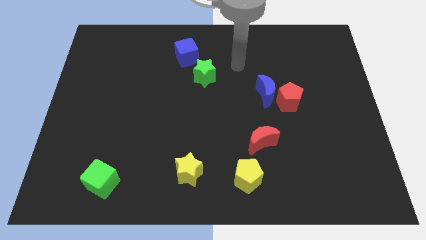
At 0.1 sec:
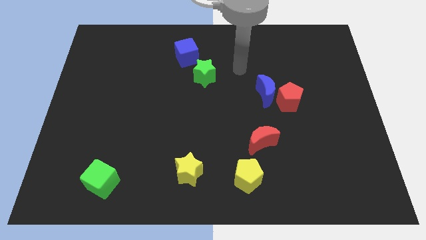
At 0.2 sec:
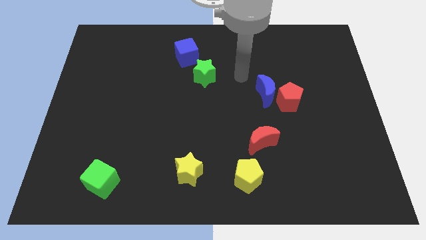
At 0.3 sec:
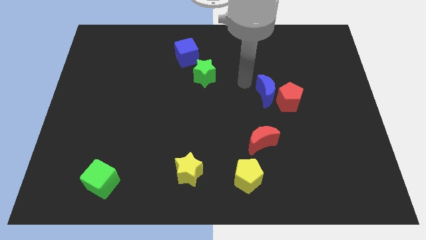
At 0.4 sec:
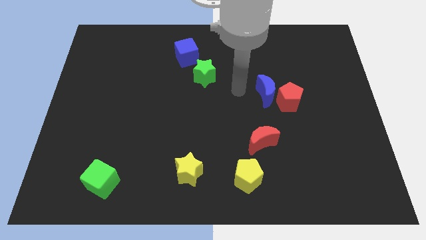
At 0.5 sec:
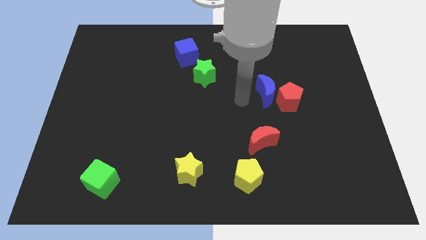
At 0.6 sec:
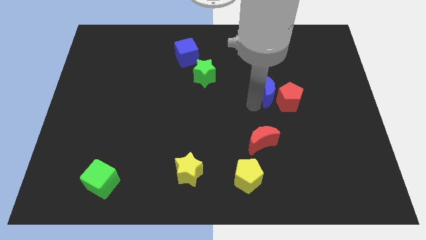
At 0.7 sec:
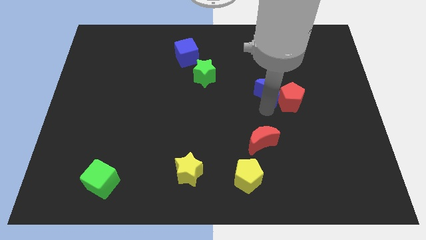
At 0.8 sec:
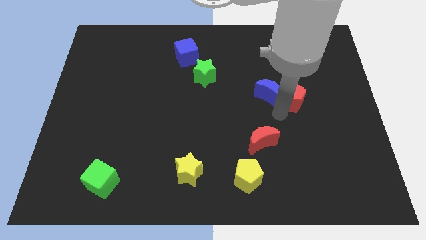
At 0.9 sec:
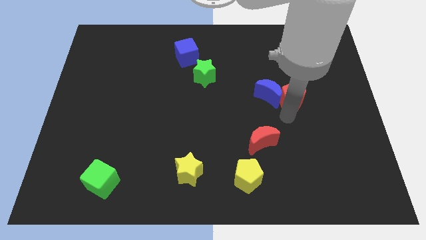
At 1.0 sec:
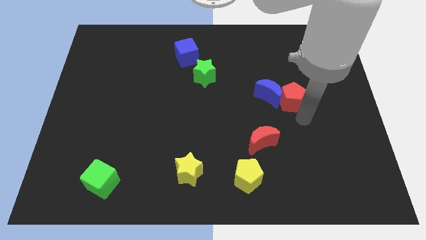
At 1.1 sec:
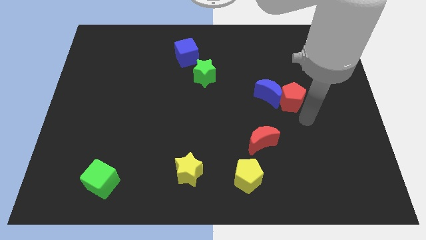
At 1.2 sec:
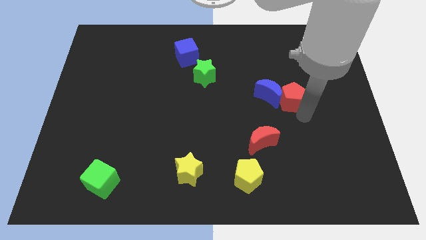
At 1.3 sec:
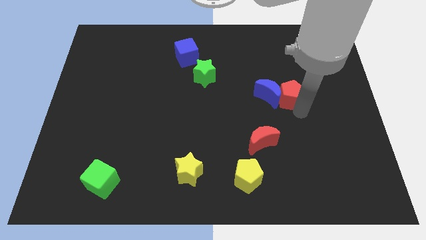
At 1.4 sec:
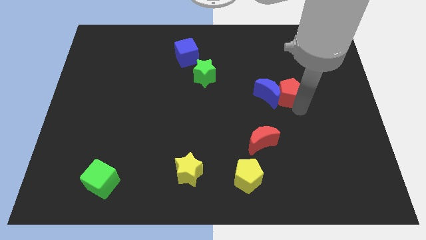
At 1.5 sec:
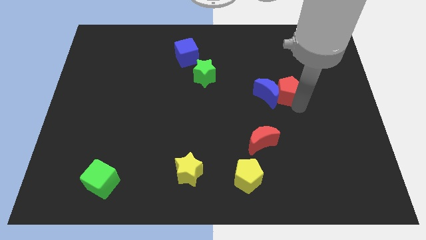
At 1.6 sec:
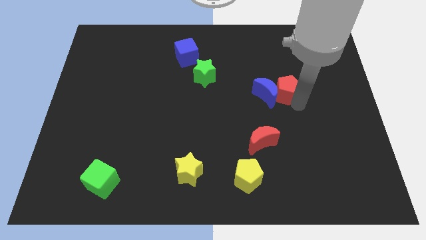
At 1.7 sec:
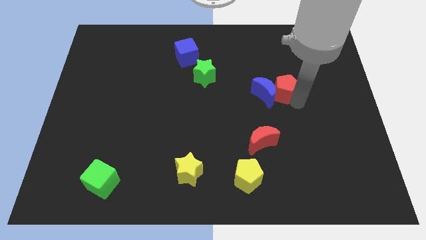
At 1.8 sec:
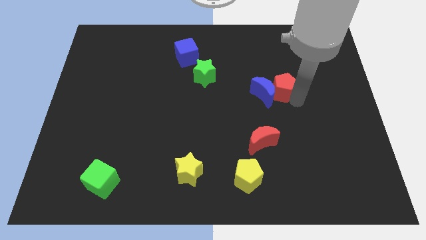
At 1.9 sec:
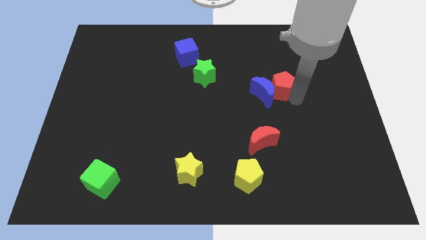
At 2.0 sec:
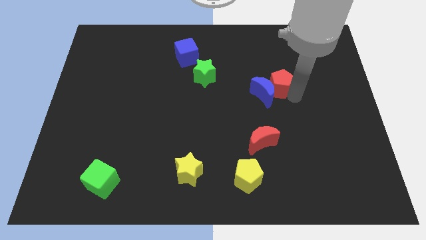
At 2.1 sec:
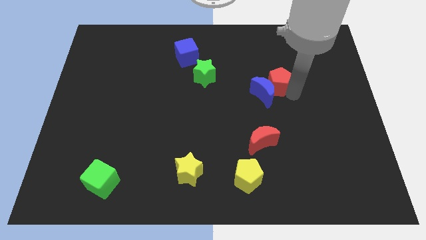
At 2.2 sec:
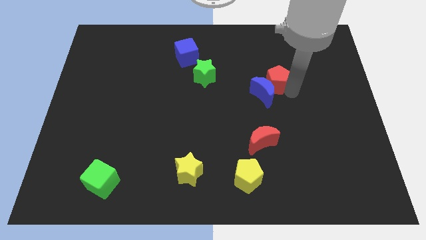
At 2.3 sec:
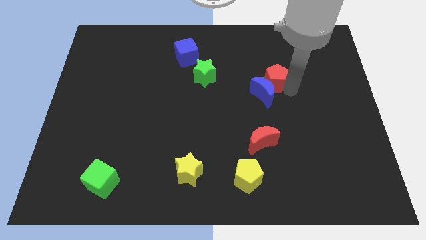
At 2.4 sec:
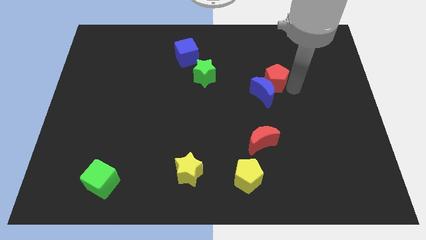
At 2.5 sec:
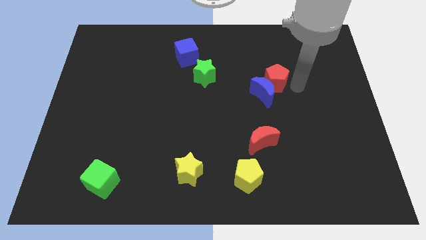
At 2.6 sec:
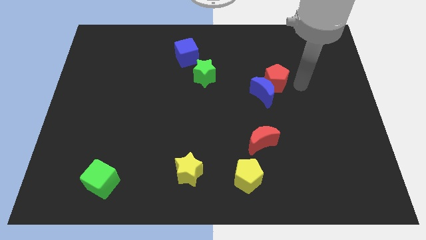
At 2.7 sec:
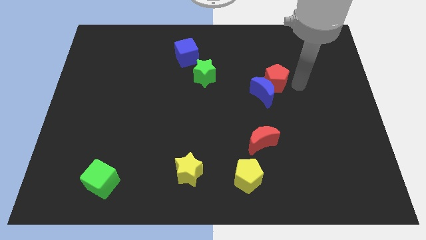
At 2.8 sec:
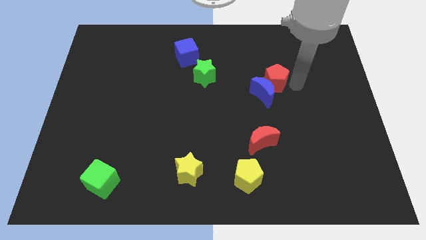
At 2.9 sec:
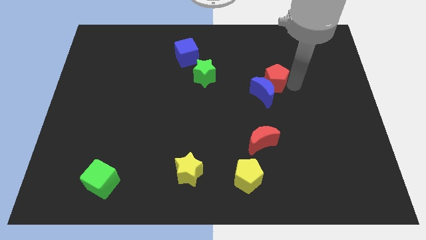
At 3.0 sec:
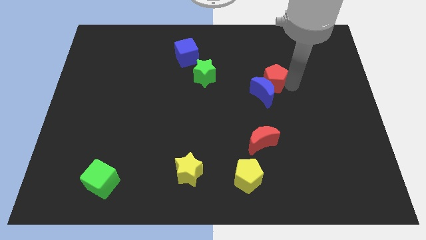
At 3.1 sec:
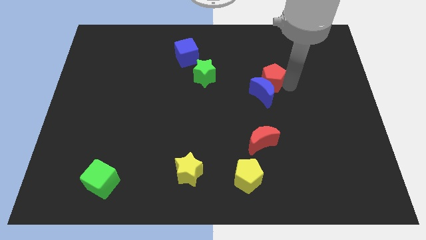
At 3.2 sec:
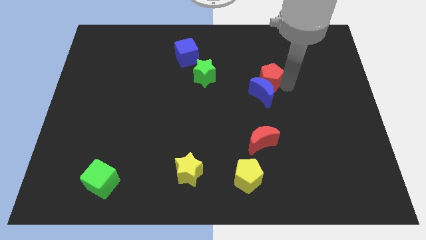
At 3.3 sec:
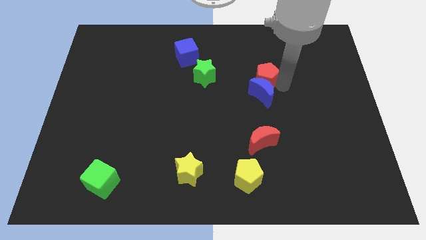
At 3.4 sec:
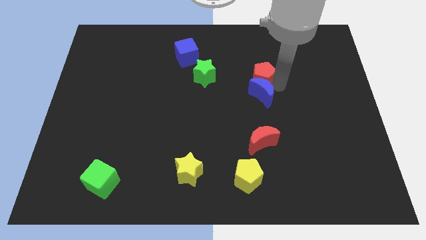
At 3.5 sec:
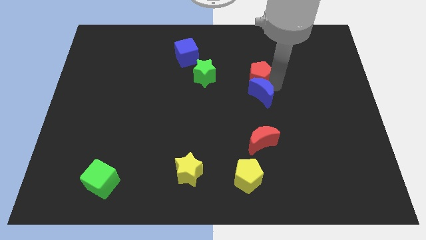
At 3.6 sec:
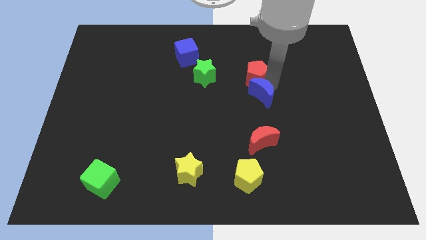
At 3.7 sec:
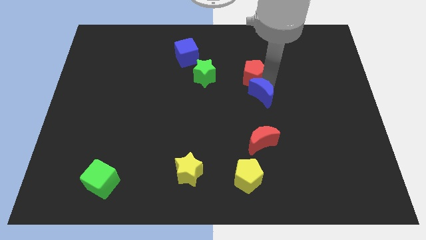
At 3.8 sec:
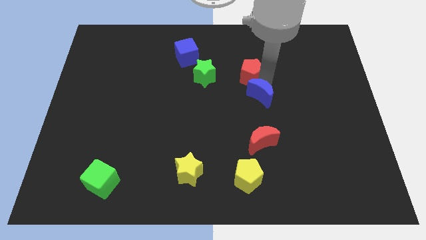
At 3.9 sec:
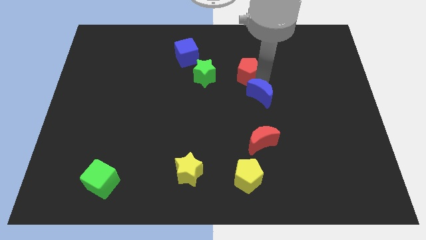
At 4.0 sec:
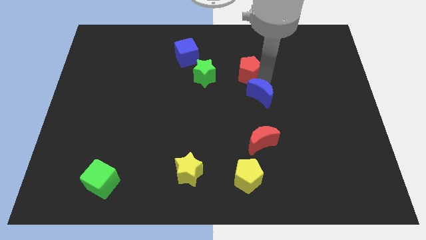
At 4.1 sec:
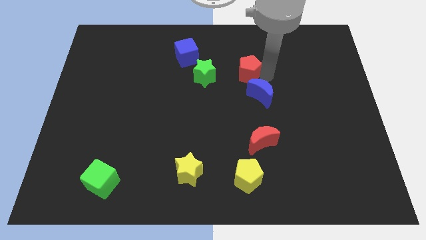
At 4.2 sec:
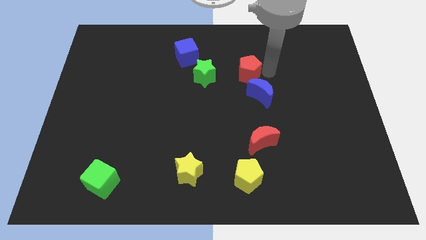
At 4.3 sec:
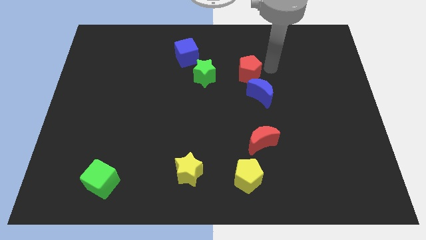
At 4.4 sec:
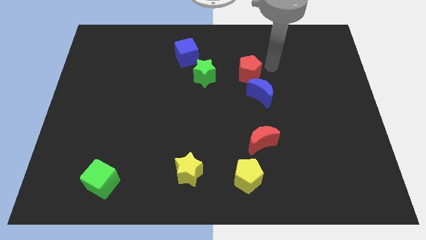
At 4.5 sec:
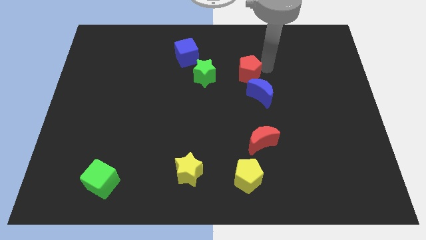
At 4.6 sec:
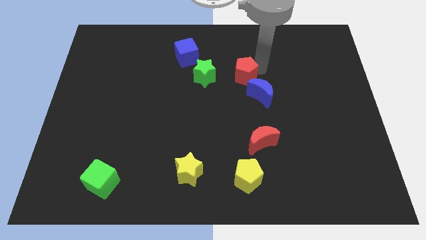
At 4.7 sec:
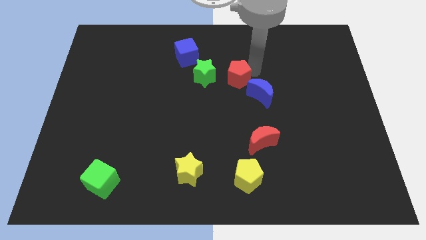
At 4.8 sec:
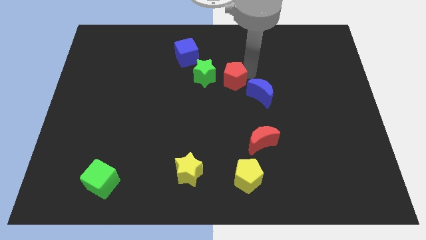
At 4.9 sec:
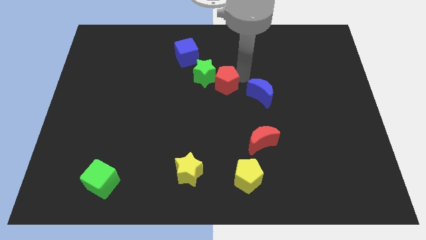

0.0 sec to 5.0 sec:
push the red pentagon to the green star

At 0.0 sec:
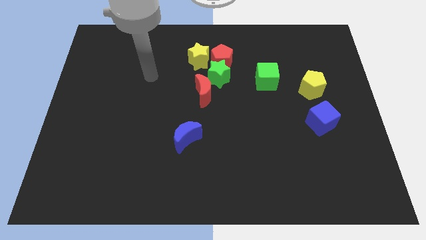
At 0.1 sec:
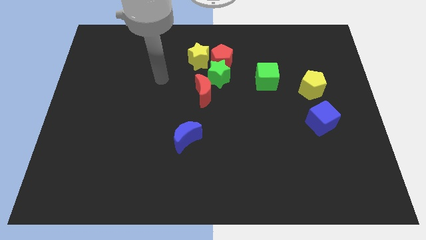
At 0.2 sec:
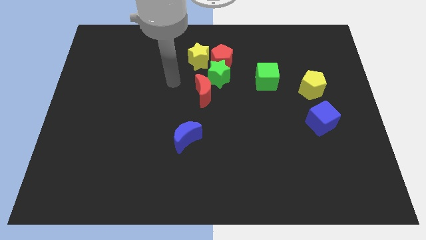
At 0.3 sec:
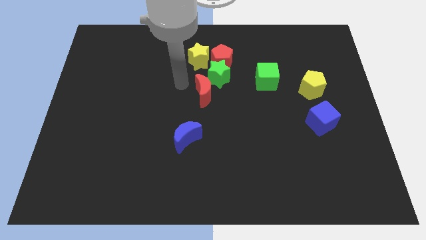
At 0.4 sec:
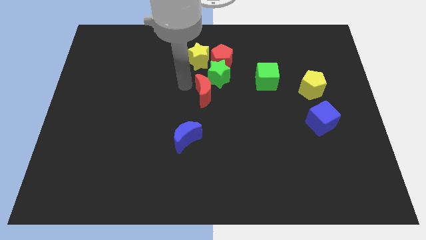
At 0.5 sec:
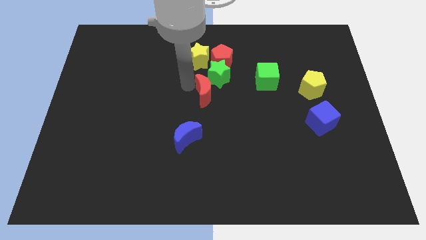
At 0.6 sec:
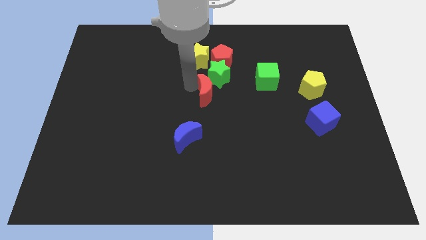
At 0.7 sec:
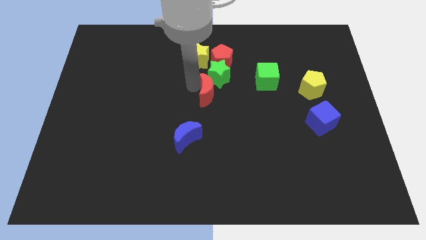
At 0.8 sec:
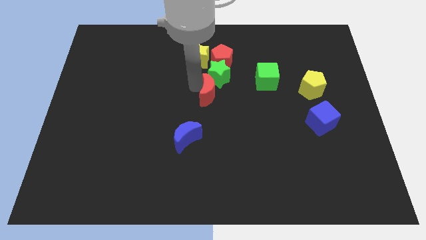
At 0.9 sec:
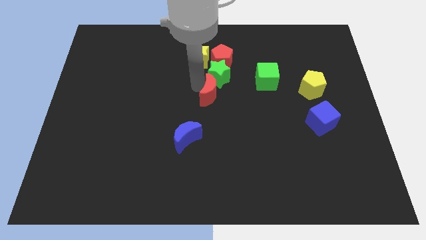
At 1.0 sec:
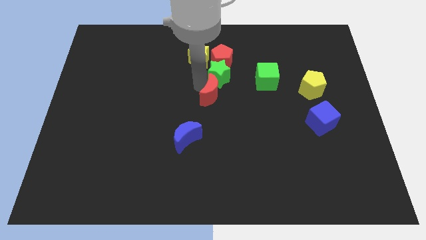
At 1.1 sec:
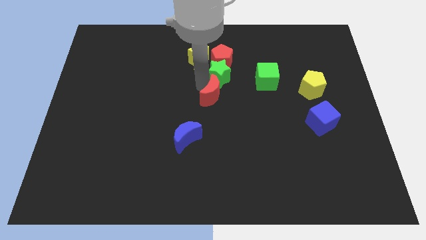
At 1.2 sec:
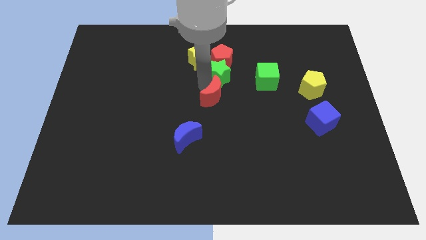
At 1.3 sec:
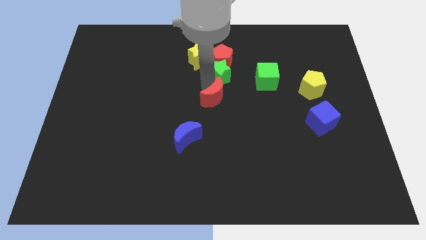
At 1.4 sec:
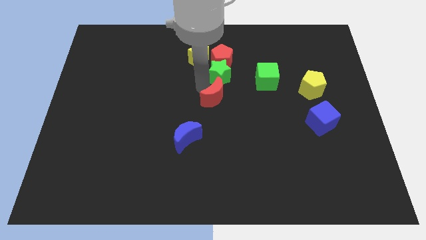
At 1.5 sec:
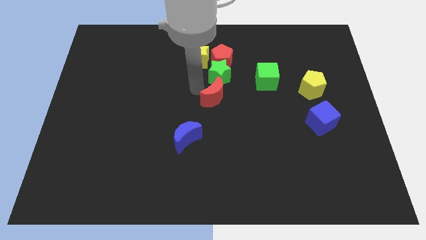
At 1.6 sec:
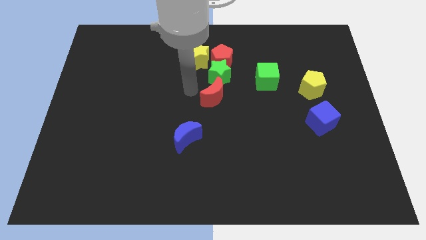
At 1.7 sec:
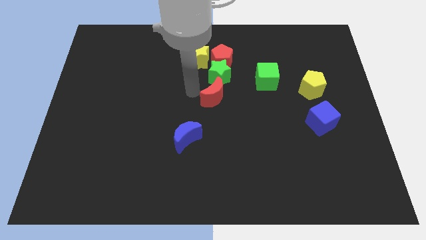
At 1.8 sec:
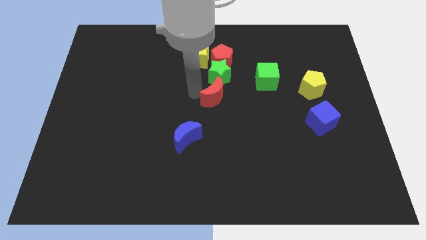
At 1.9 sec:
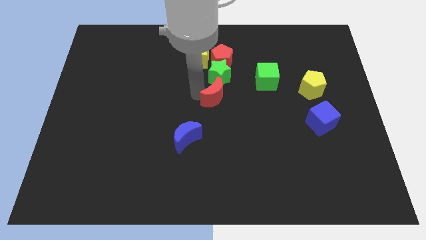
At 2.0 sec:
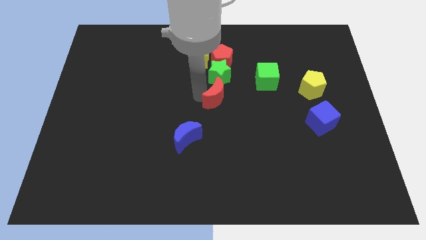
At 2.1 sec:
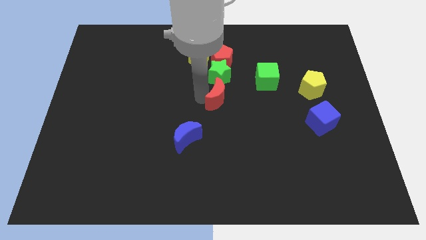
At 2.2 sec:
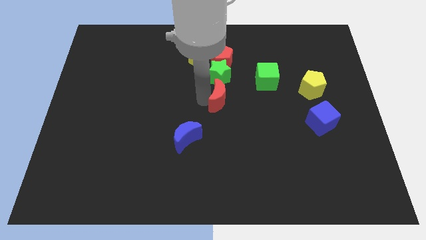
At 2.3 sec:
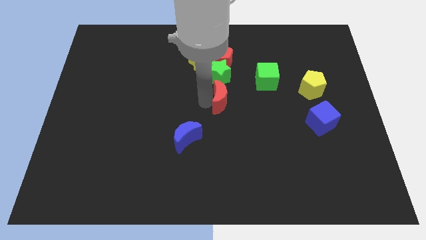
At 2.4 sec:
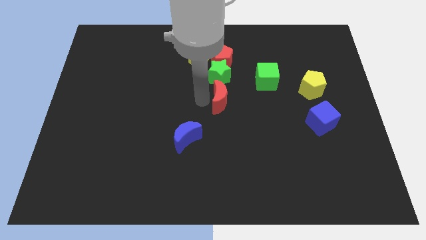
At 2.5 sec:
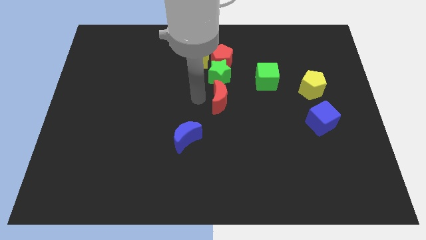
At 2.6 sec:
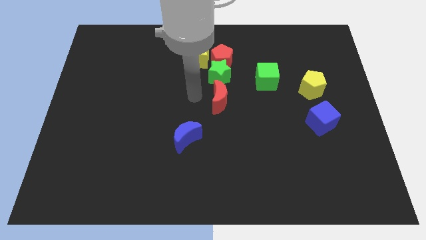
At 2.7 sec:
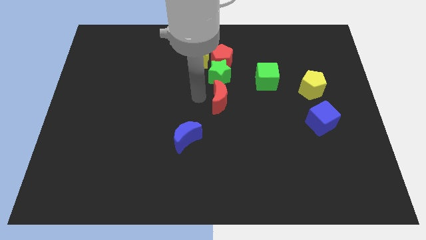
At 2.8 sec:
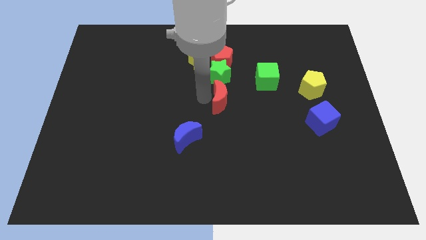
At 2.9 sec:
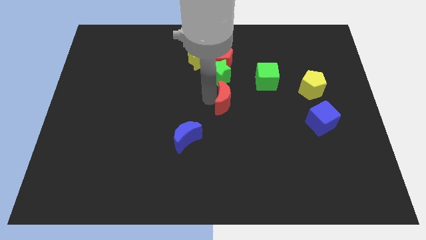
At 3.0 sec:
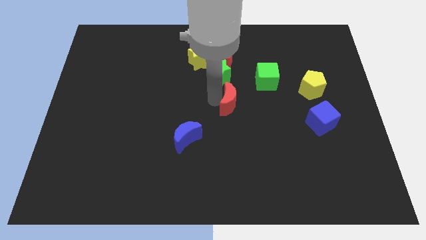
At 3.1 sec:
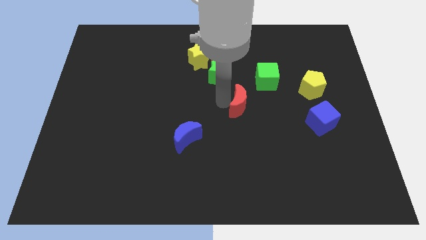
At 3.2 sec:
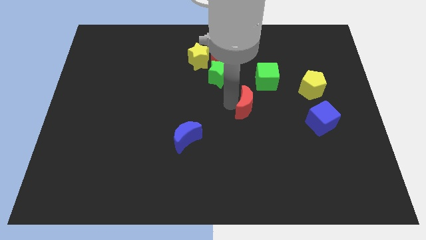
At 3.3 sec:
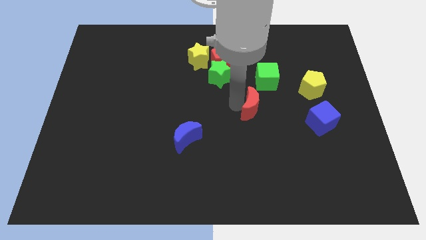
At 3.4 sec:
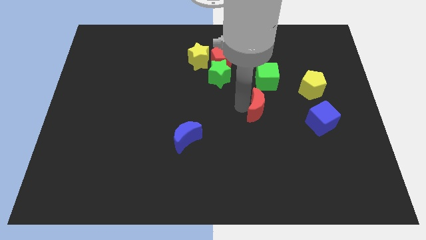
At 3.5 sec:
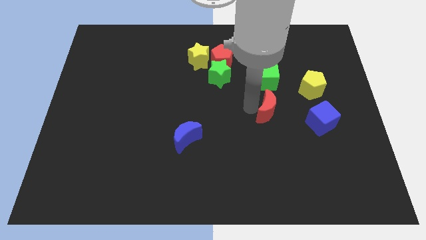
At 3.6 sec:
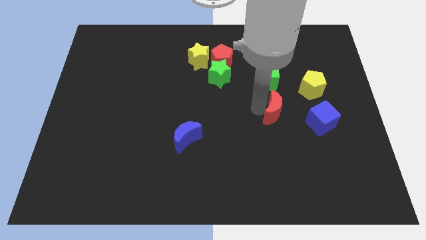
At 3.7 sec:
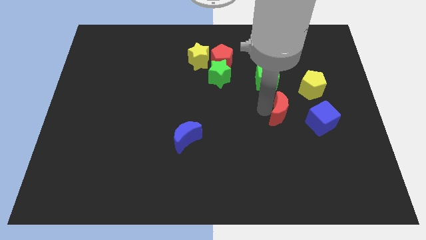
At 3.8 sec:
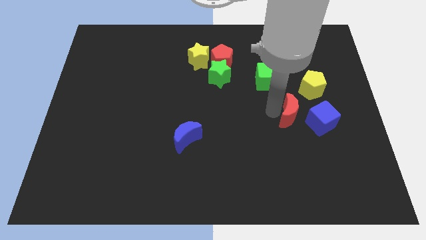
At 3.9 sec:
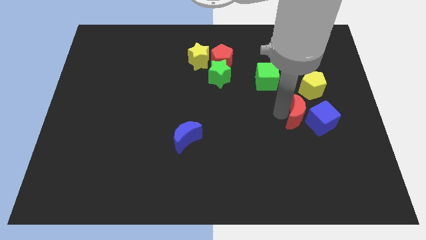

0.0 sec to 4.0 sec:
slide the red moon to the blue cube
